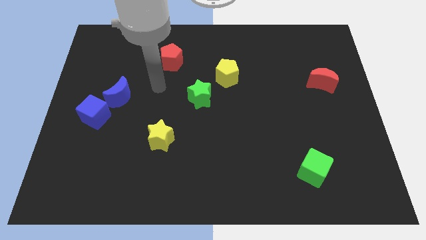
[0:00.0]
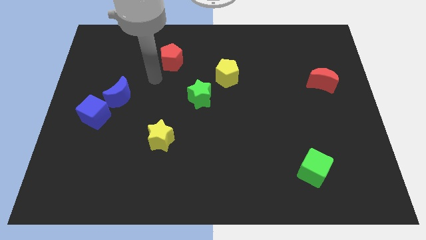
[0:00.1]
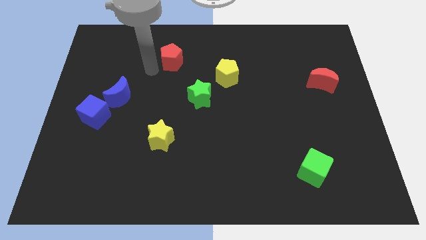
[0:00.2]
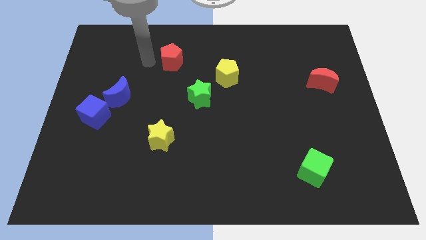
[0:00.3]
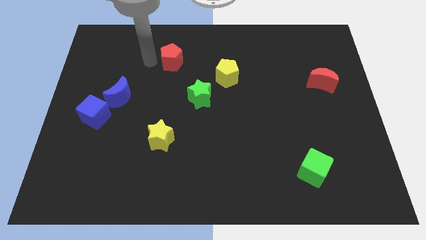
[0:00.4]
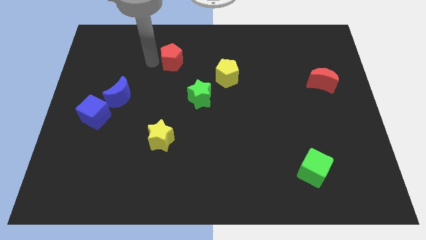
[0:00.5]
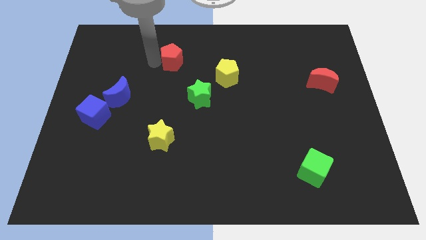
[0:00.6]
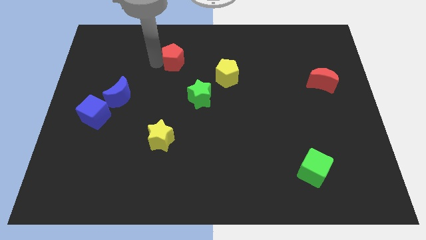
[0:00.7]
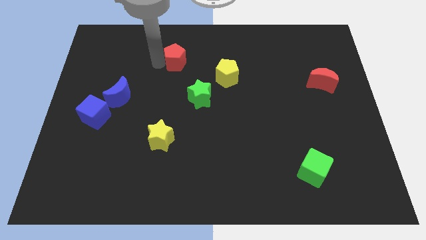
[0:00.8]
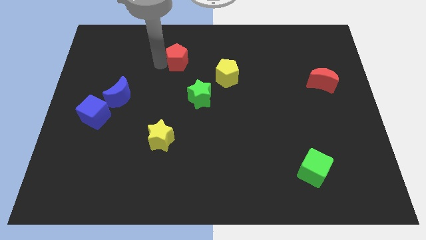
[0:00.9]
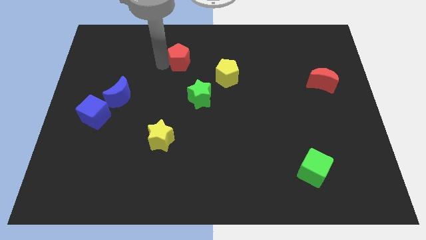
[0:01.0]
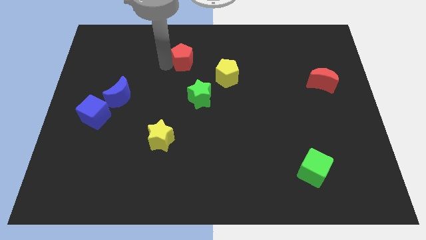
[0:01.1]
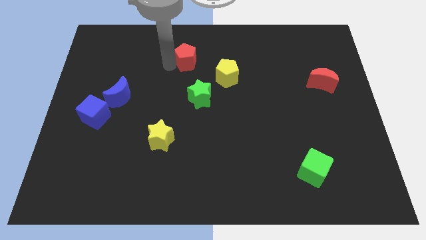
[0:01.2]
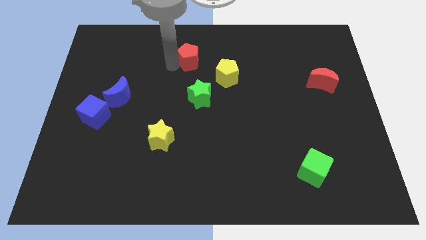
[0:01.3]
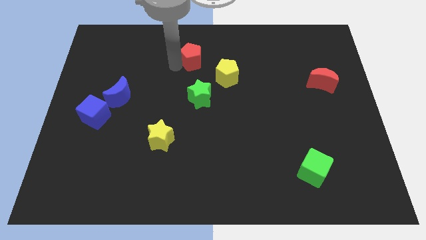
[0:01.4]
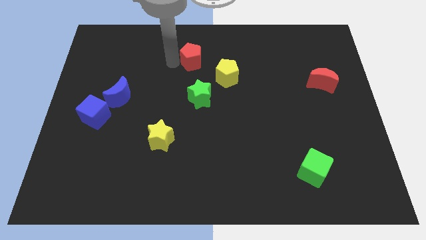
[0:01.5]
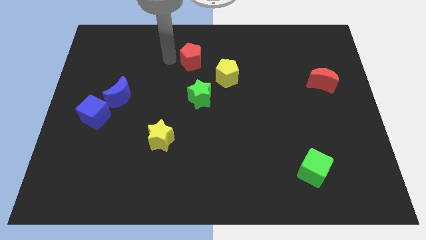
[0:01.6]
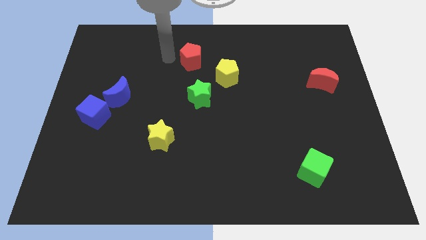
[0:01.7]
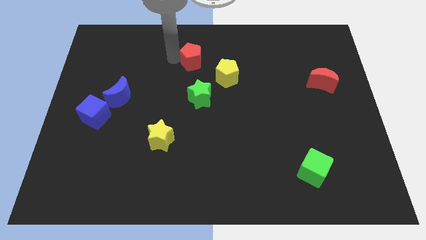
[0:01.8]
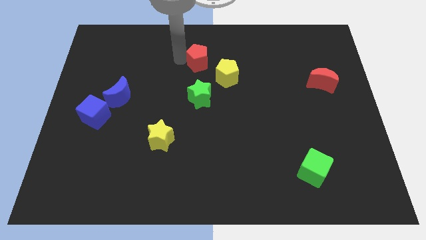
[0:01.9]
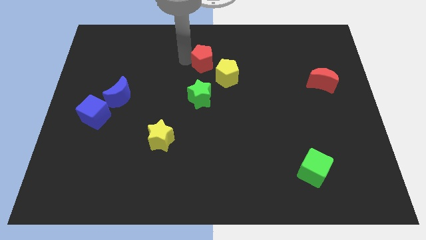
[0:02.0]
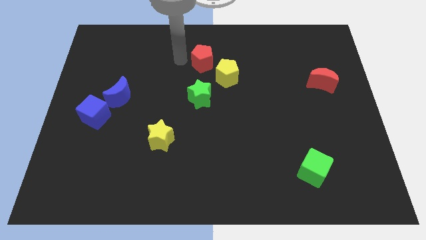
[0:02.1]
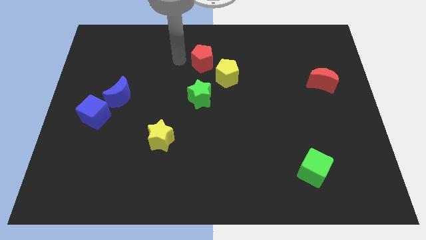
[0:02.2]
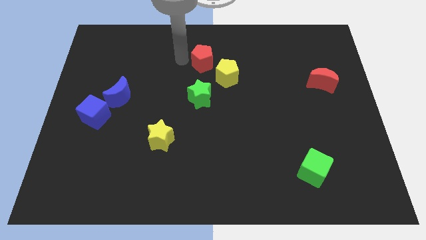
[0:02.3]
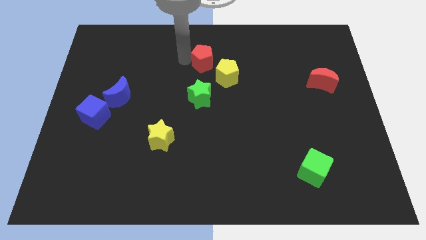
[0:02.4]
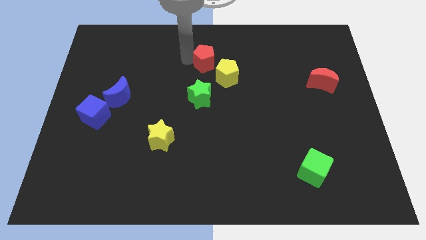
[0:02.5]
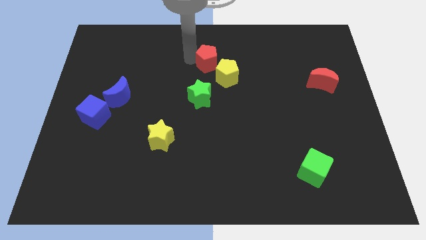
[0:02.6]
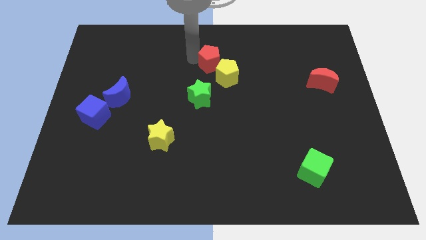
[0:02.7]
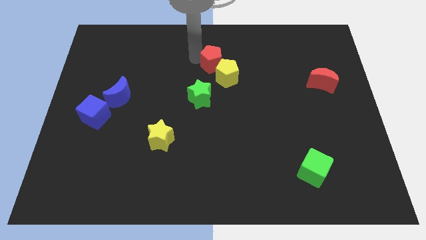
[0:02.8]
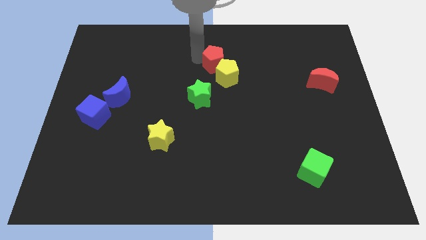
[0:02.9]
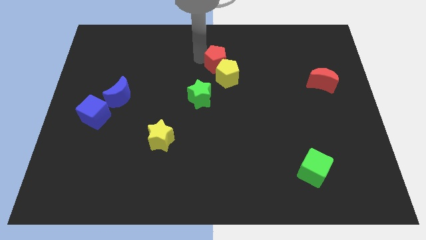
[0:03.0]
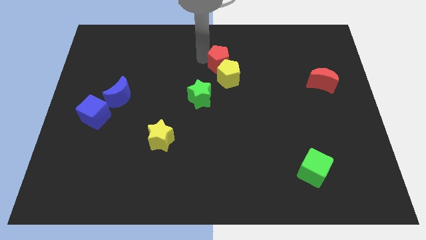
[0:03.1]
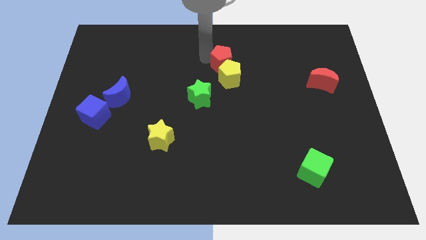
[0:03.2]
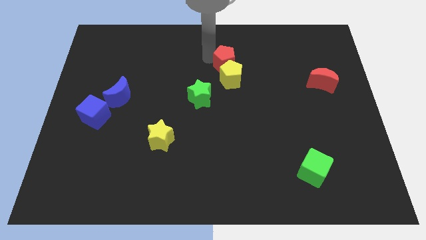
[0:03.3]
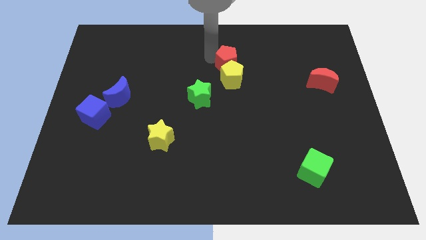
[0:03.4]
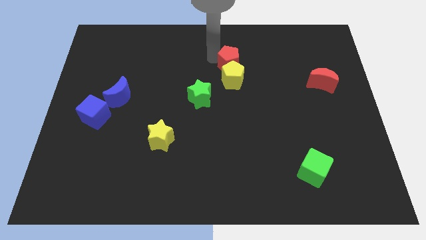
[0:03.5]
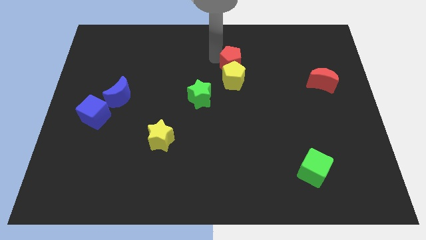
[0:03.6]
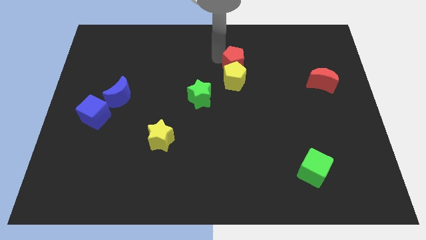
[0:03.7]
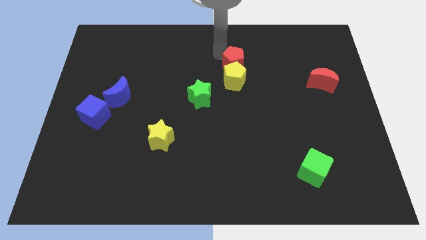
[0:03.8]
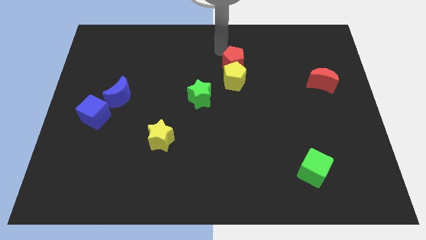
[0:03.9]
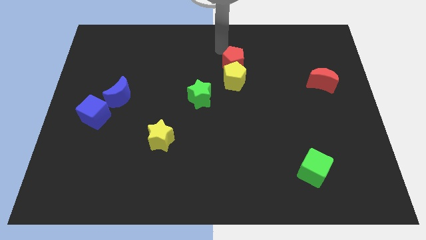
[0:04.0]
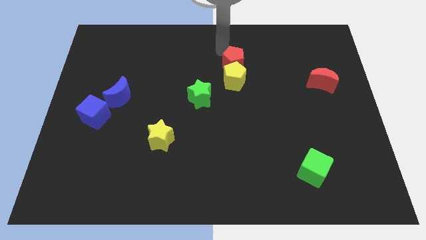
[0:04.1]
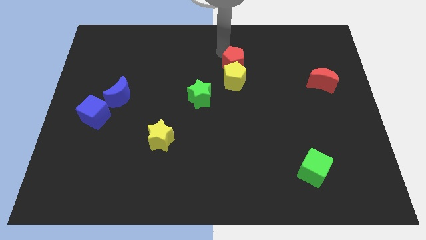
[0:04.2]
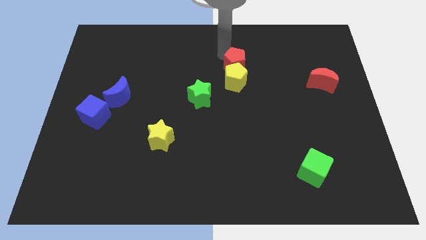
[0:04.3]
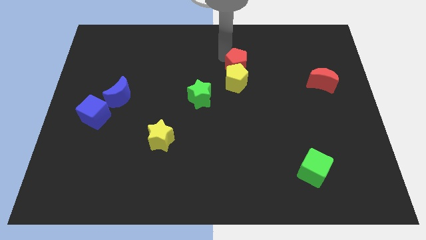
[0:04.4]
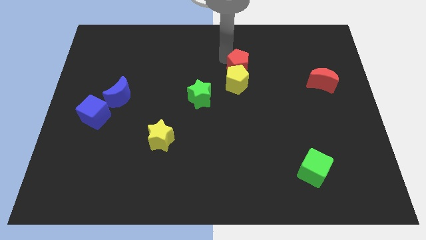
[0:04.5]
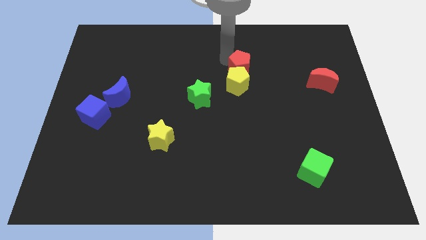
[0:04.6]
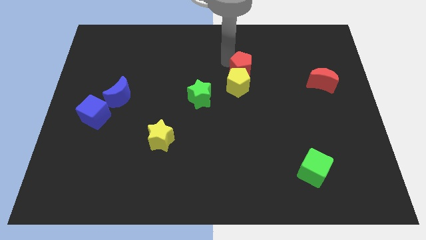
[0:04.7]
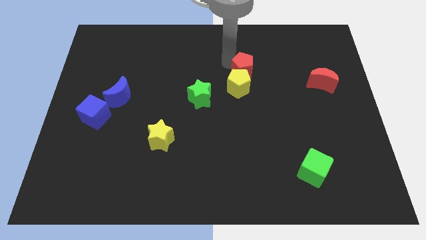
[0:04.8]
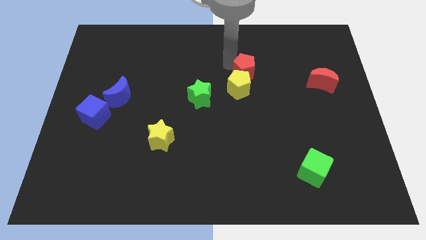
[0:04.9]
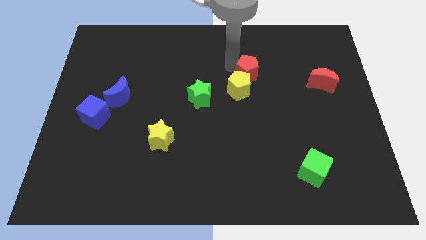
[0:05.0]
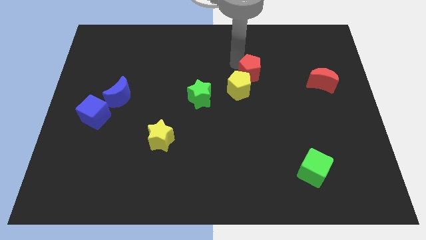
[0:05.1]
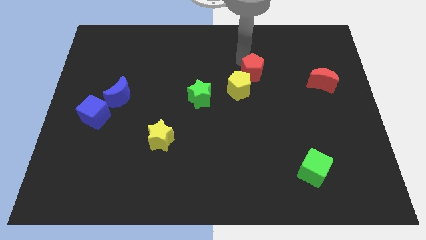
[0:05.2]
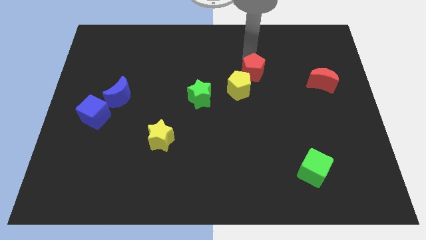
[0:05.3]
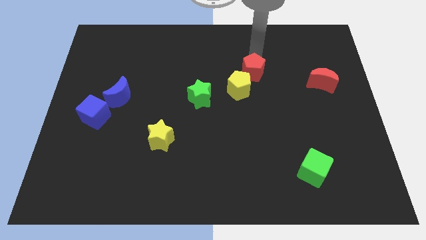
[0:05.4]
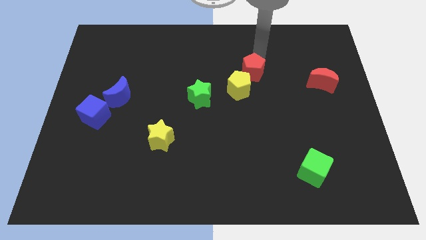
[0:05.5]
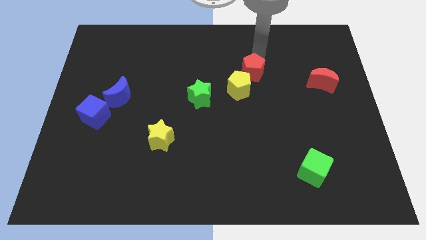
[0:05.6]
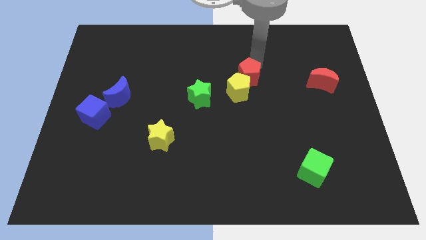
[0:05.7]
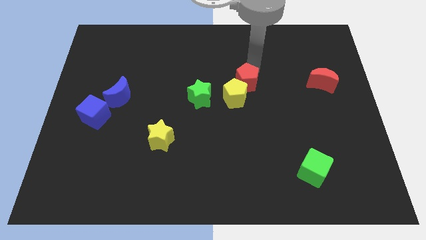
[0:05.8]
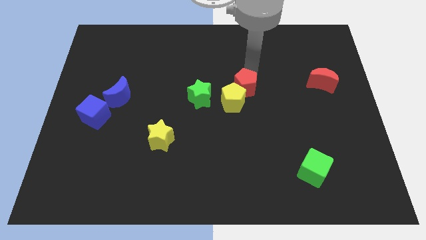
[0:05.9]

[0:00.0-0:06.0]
move the red pentagon right of the green star

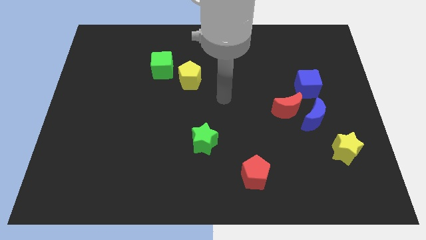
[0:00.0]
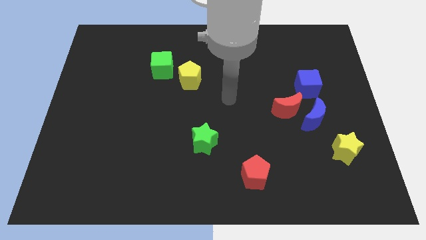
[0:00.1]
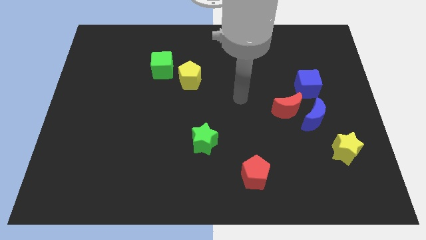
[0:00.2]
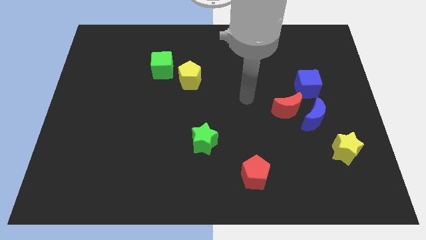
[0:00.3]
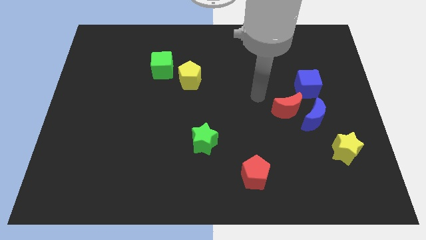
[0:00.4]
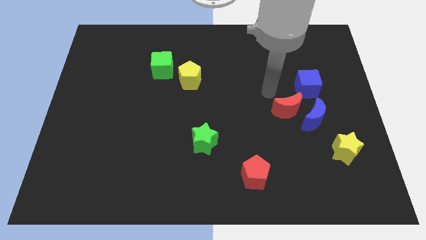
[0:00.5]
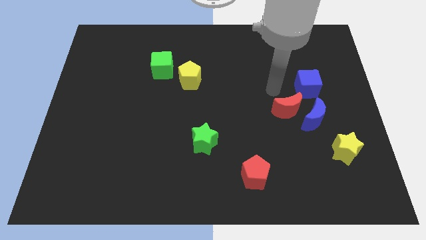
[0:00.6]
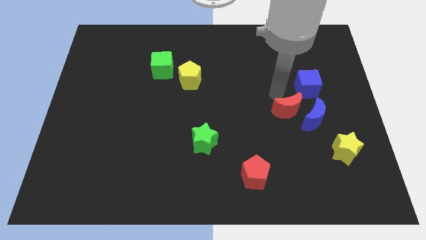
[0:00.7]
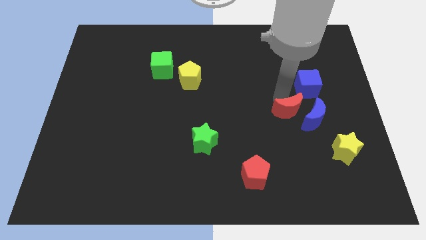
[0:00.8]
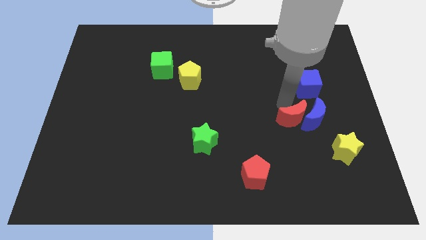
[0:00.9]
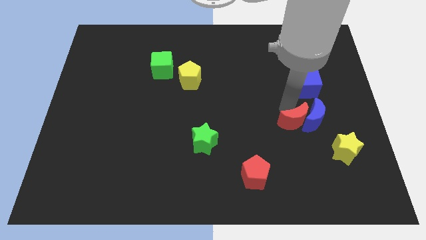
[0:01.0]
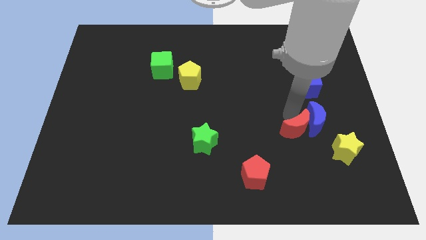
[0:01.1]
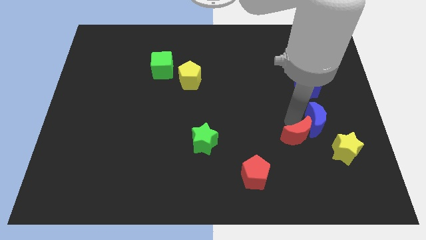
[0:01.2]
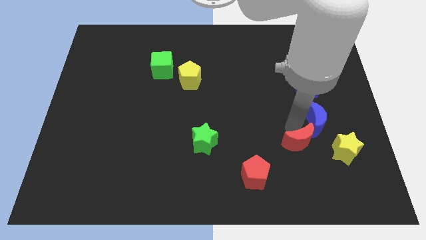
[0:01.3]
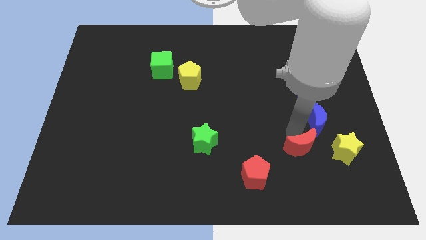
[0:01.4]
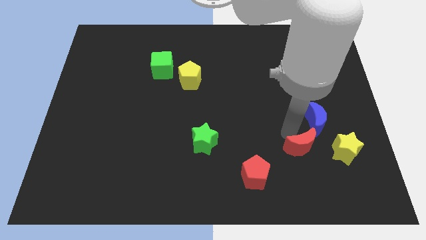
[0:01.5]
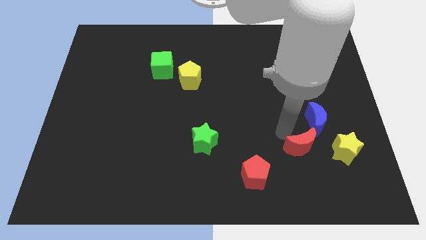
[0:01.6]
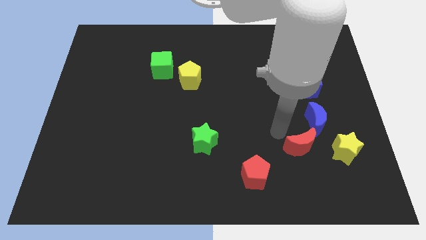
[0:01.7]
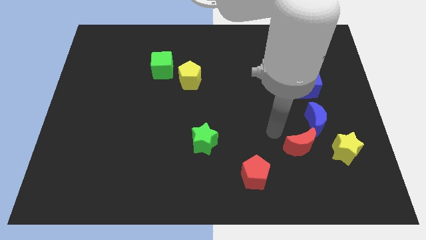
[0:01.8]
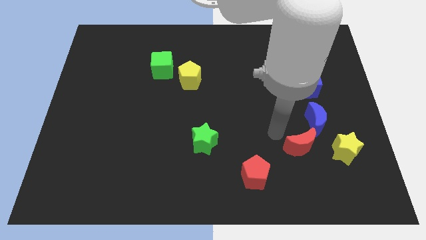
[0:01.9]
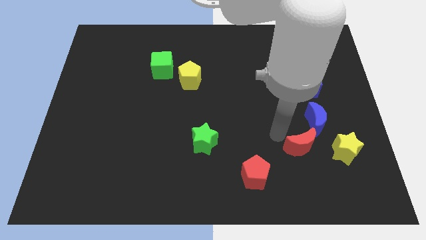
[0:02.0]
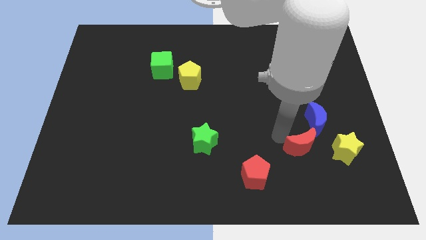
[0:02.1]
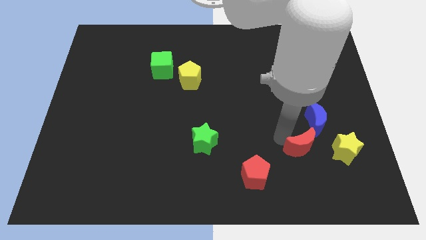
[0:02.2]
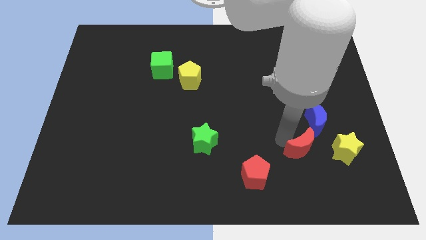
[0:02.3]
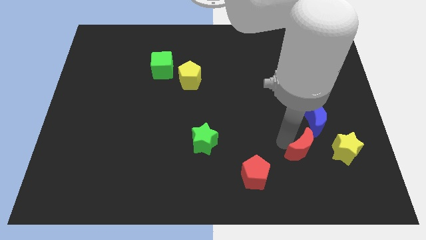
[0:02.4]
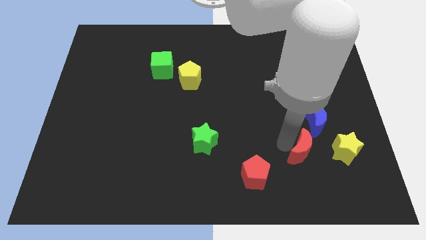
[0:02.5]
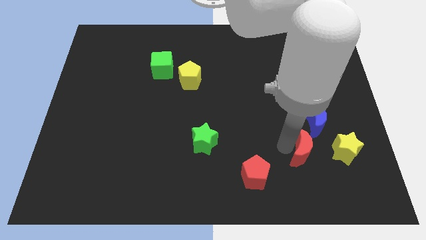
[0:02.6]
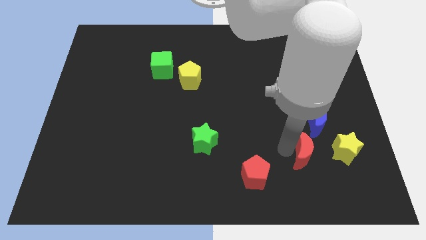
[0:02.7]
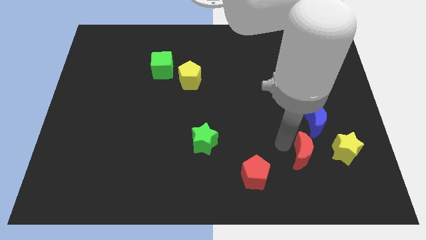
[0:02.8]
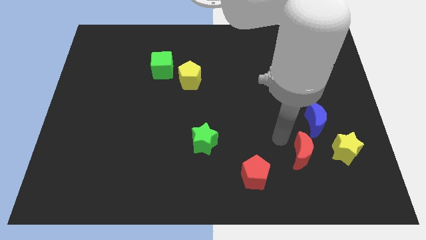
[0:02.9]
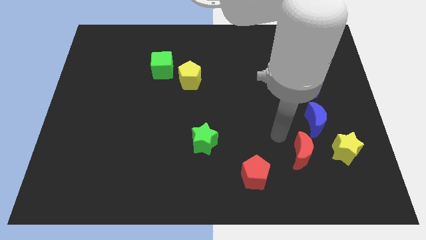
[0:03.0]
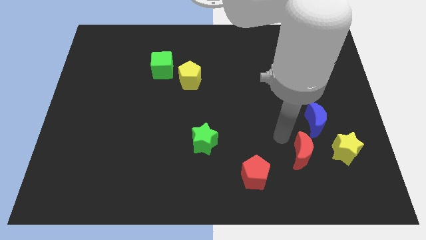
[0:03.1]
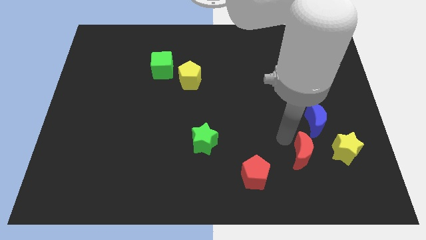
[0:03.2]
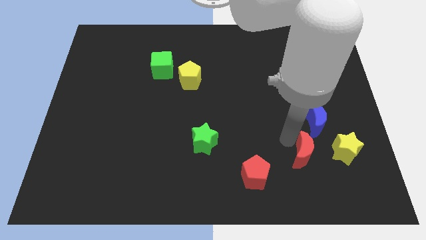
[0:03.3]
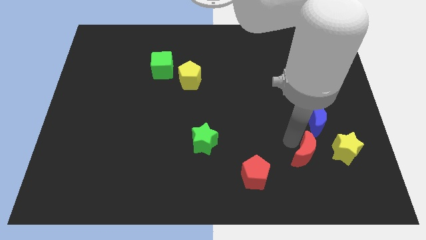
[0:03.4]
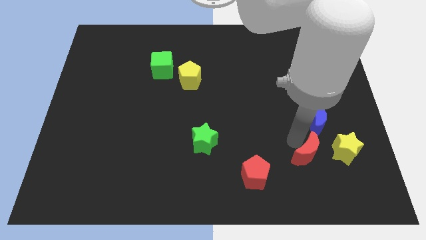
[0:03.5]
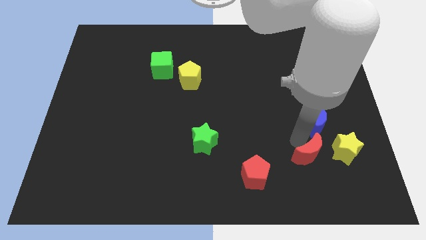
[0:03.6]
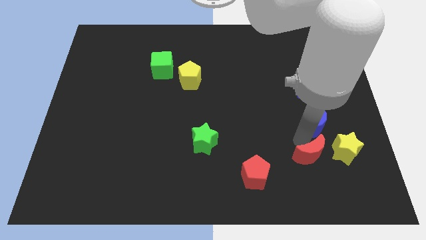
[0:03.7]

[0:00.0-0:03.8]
slide the red moon to the bottom left of the yellow star
